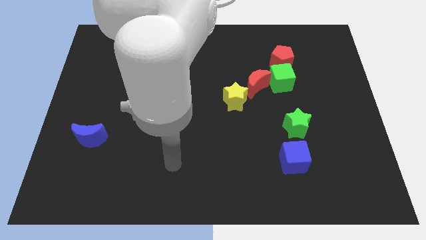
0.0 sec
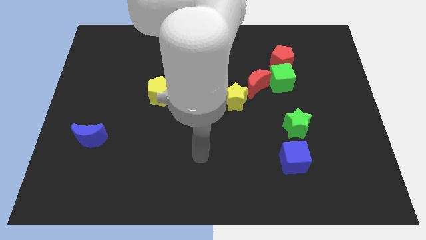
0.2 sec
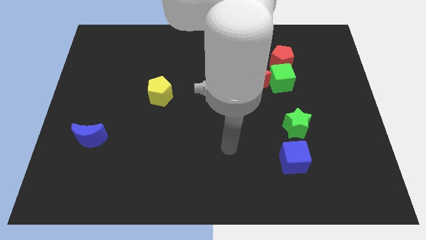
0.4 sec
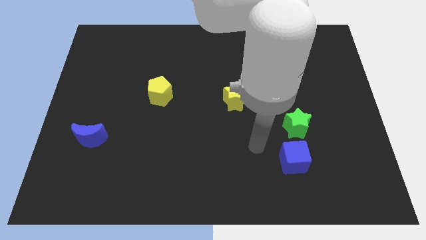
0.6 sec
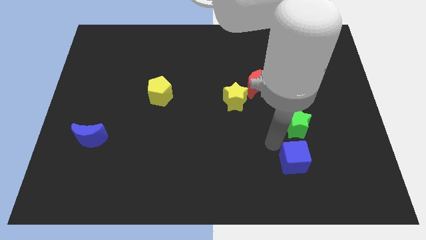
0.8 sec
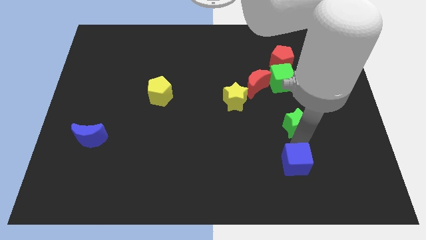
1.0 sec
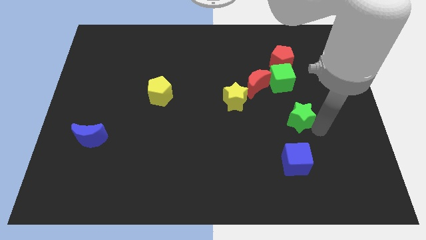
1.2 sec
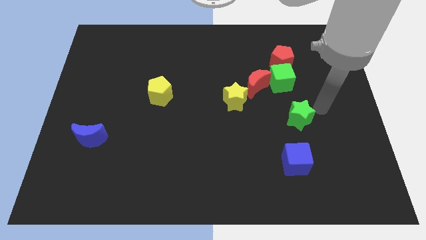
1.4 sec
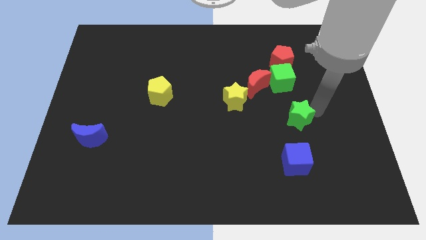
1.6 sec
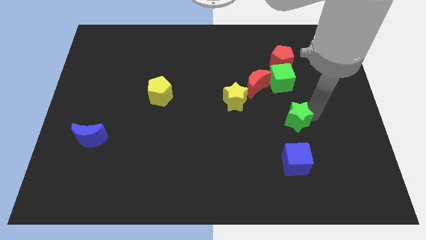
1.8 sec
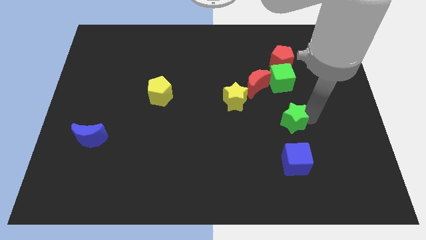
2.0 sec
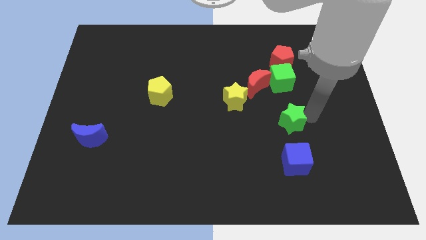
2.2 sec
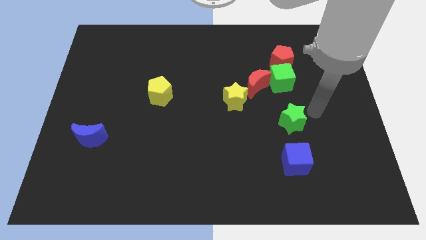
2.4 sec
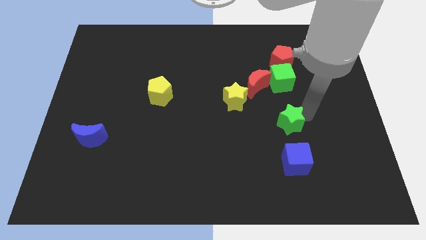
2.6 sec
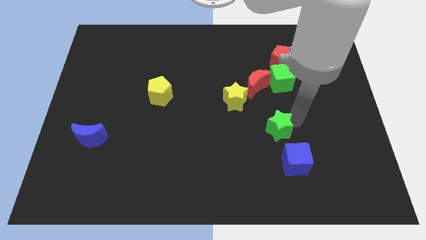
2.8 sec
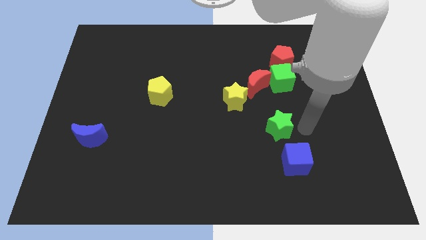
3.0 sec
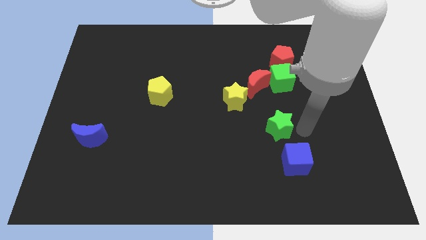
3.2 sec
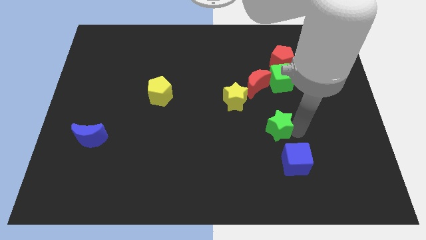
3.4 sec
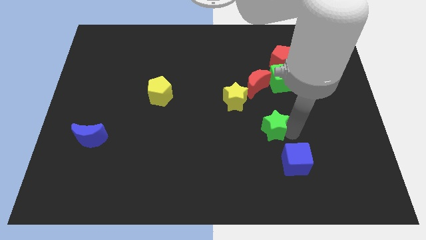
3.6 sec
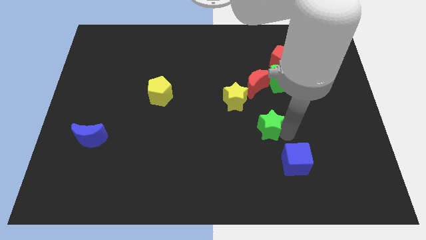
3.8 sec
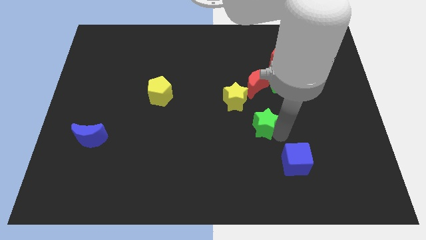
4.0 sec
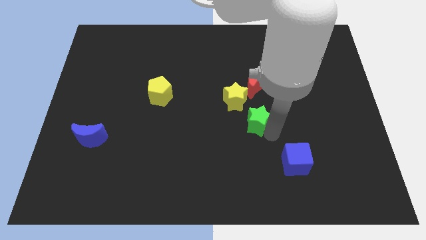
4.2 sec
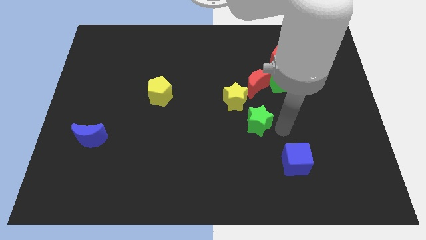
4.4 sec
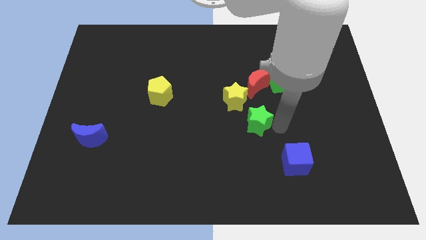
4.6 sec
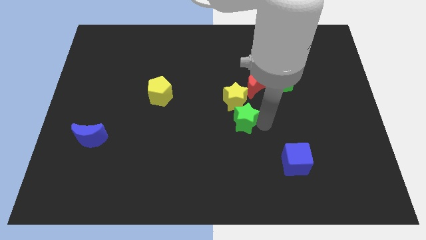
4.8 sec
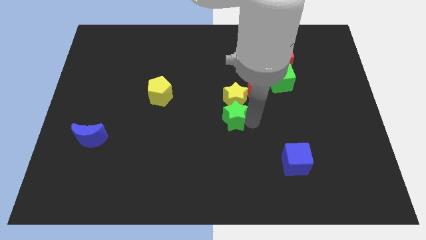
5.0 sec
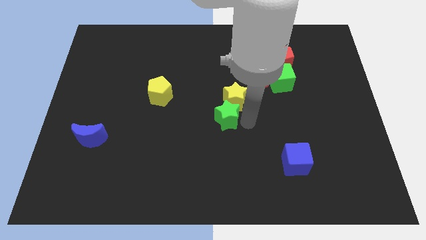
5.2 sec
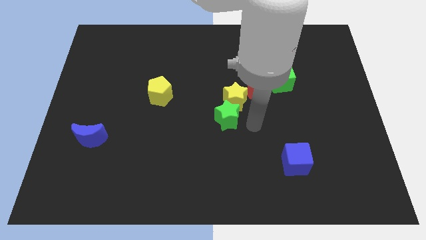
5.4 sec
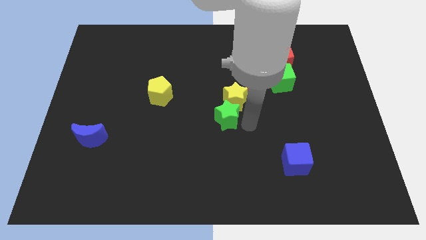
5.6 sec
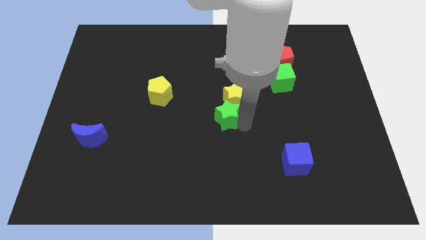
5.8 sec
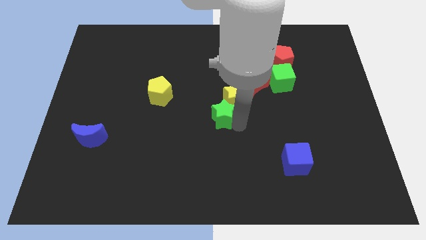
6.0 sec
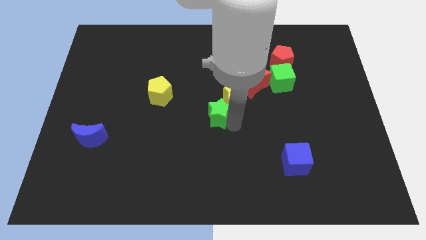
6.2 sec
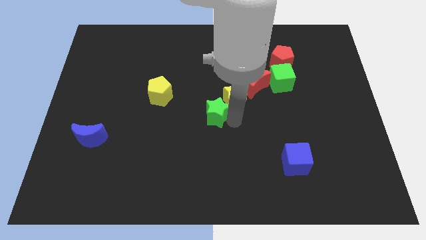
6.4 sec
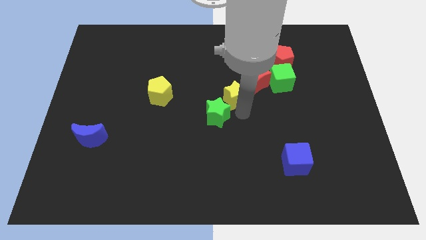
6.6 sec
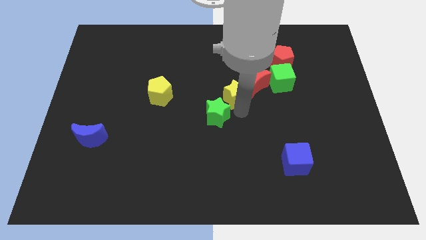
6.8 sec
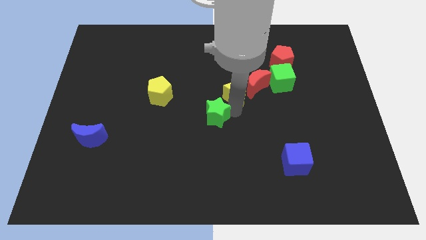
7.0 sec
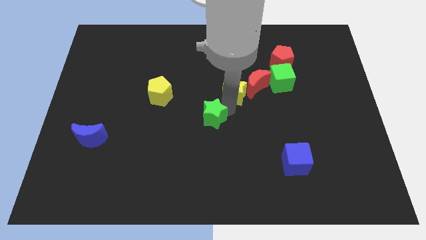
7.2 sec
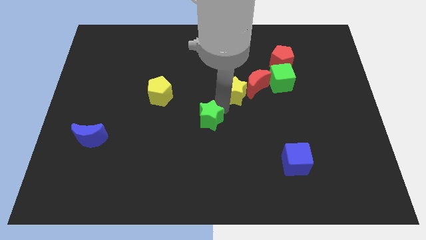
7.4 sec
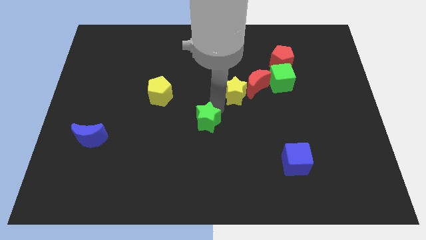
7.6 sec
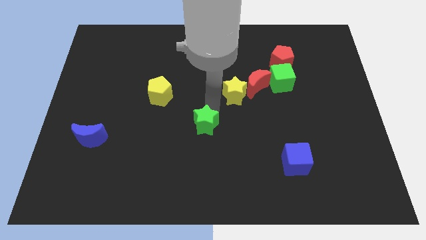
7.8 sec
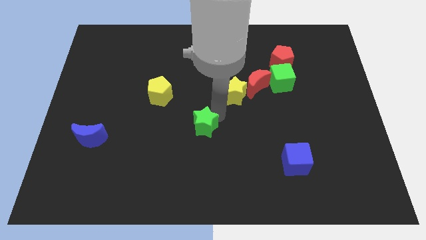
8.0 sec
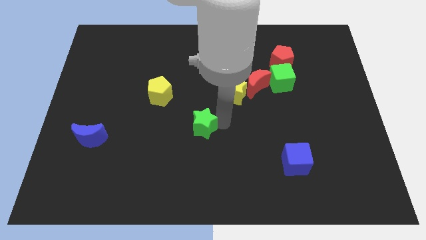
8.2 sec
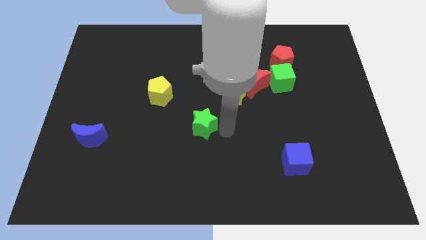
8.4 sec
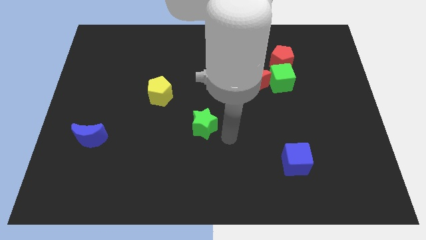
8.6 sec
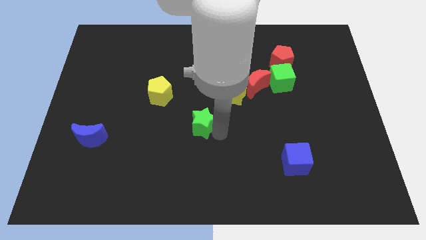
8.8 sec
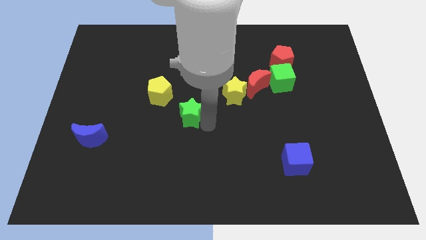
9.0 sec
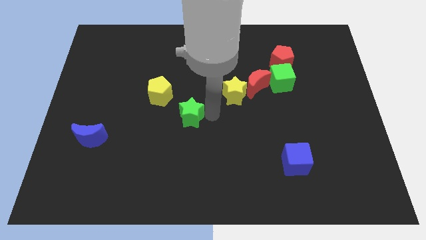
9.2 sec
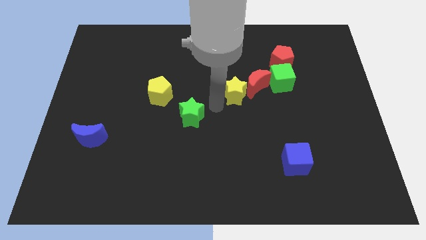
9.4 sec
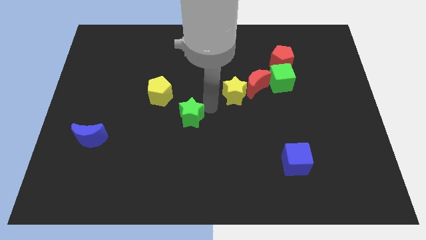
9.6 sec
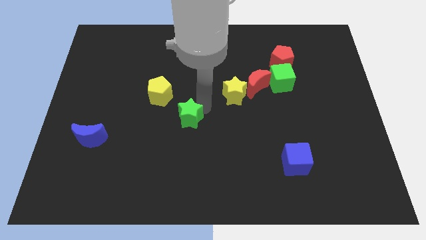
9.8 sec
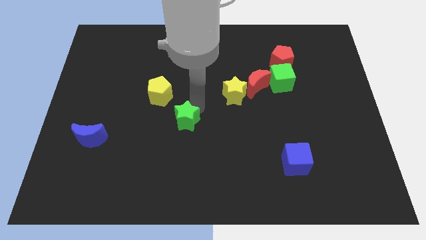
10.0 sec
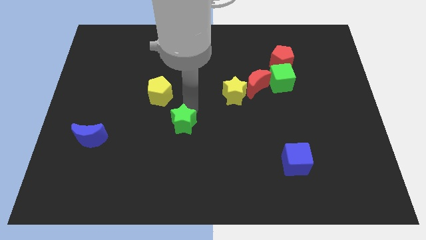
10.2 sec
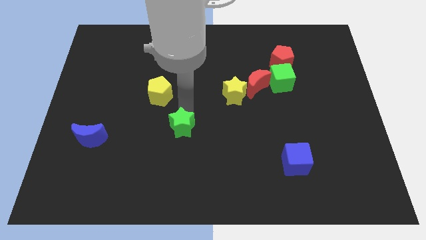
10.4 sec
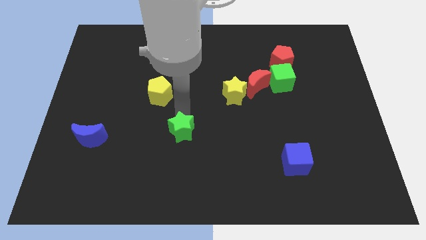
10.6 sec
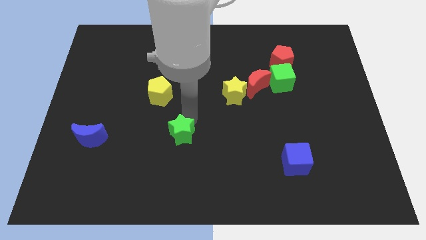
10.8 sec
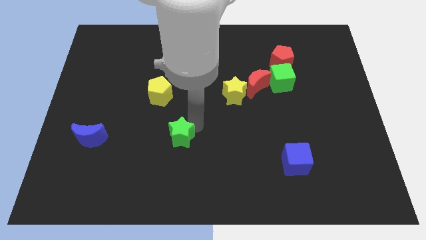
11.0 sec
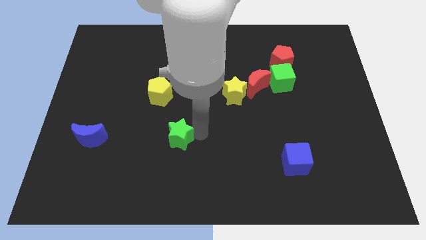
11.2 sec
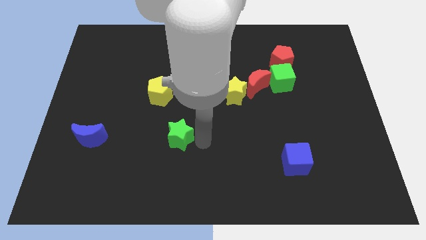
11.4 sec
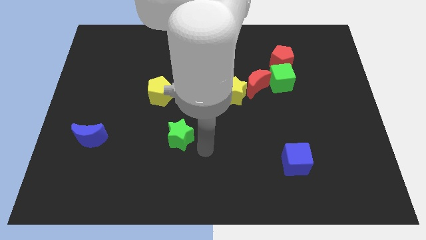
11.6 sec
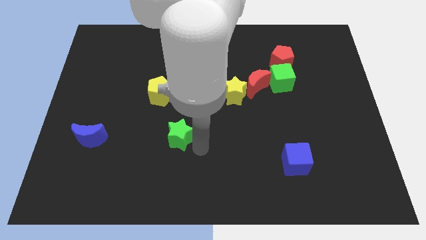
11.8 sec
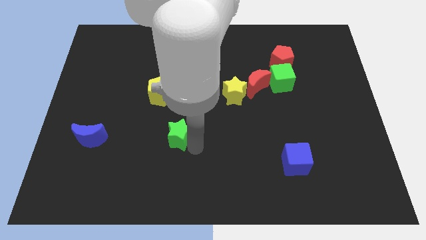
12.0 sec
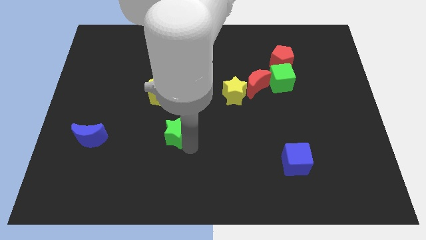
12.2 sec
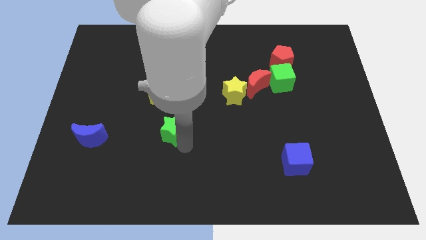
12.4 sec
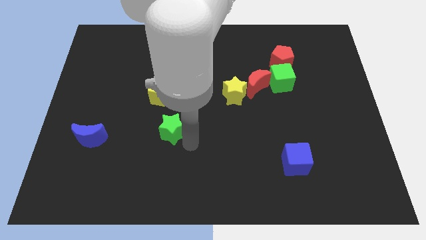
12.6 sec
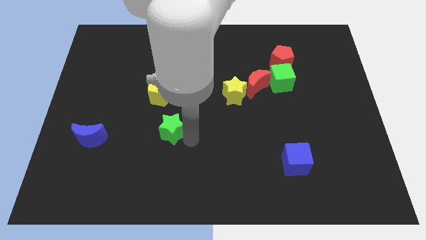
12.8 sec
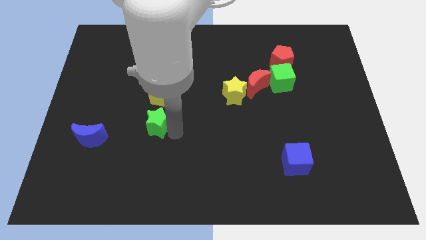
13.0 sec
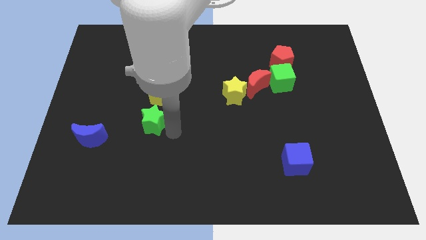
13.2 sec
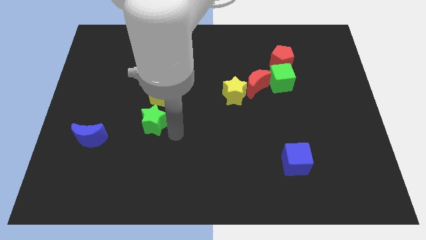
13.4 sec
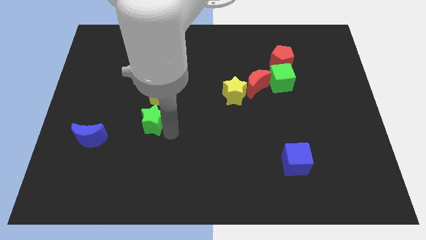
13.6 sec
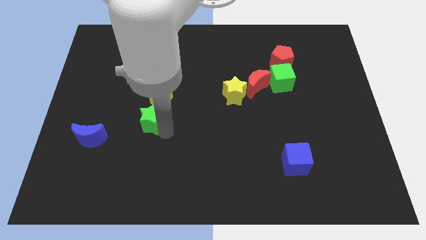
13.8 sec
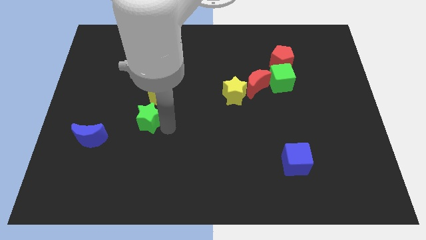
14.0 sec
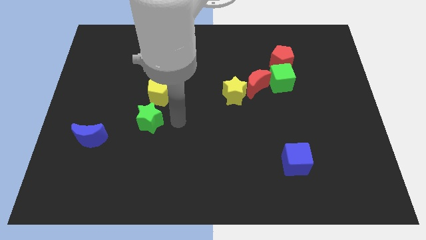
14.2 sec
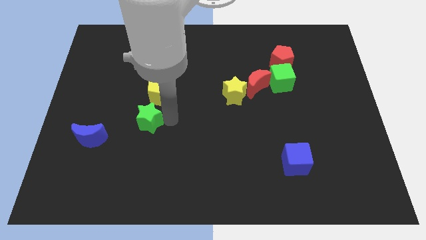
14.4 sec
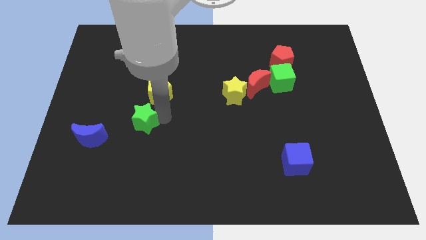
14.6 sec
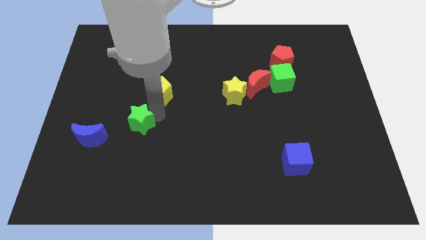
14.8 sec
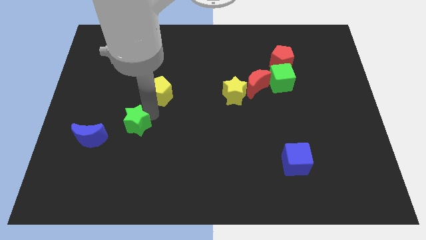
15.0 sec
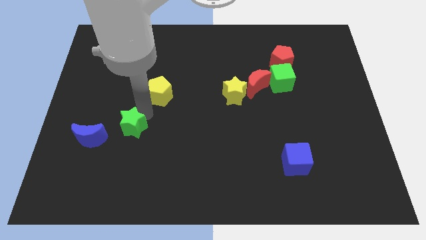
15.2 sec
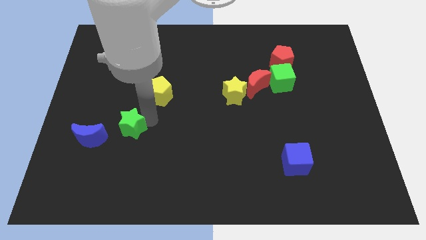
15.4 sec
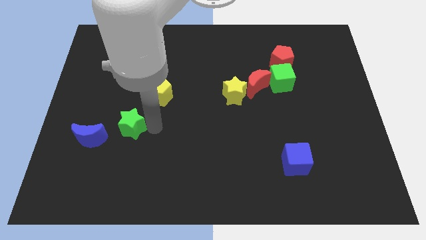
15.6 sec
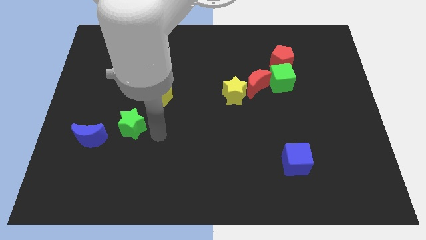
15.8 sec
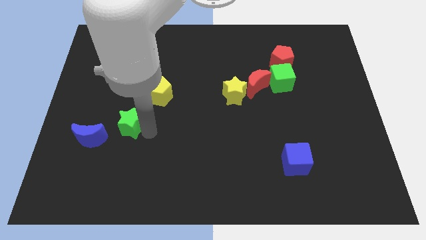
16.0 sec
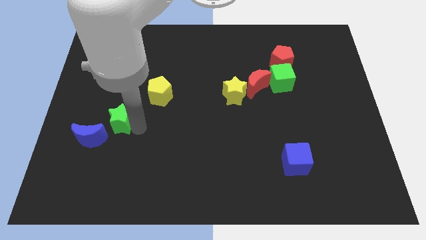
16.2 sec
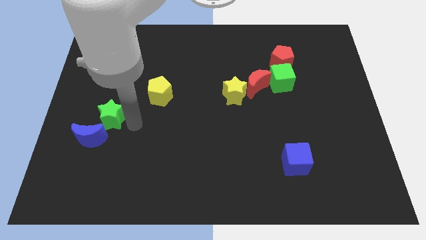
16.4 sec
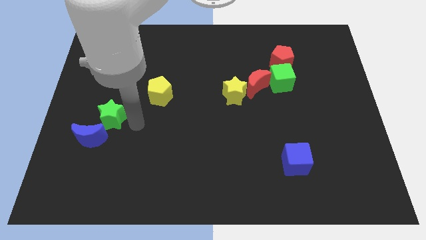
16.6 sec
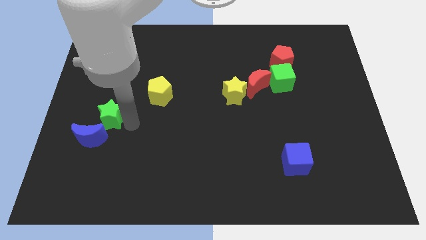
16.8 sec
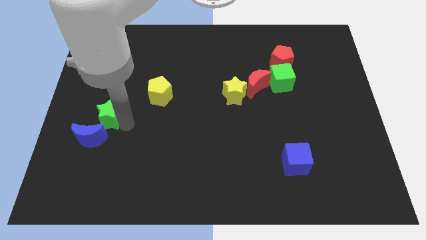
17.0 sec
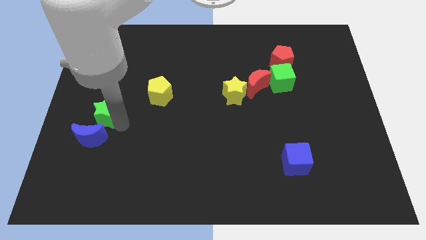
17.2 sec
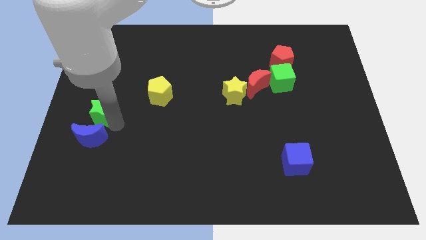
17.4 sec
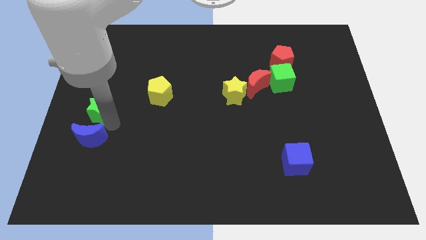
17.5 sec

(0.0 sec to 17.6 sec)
put the green star to the left side of the board
